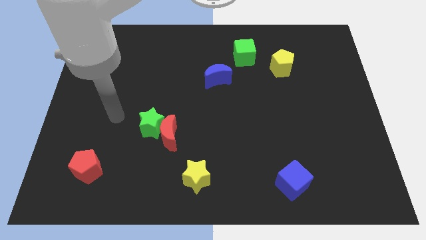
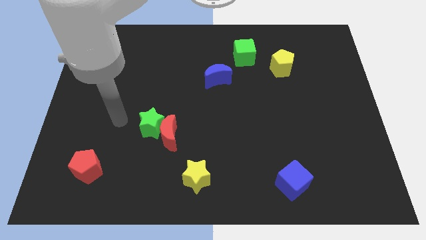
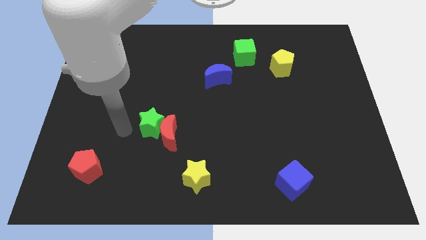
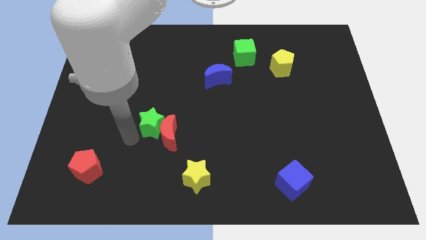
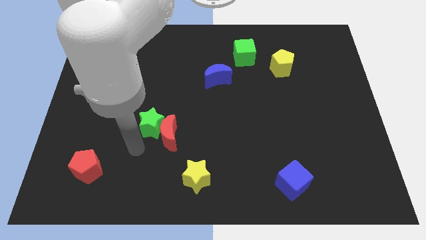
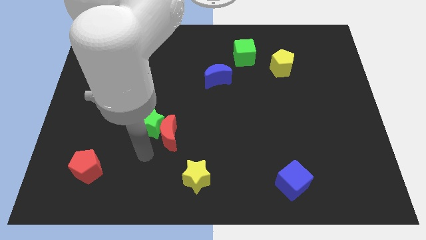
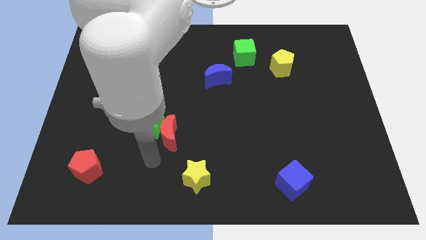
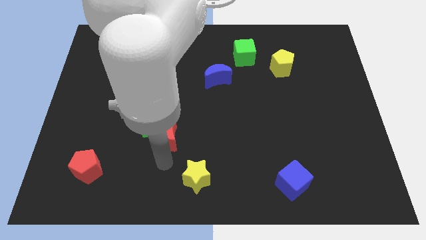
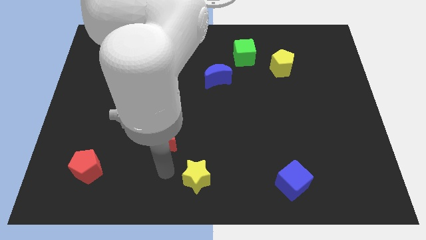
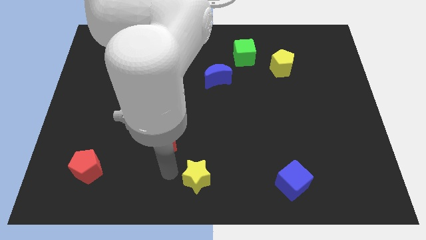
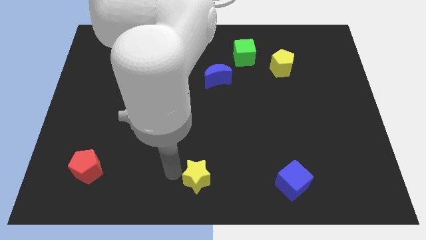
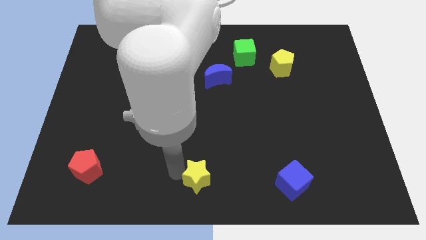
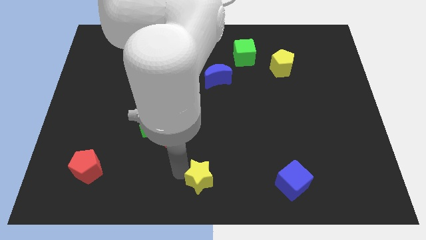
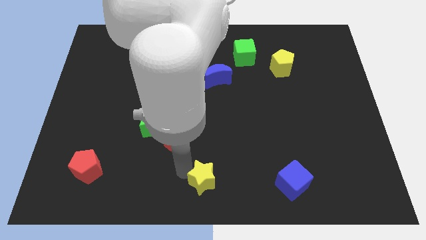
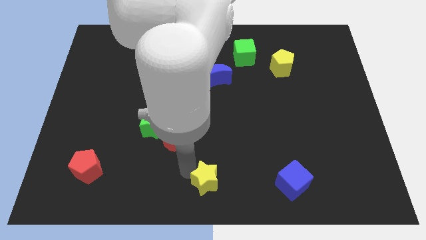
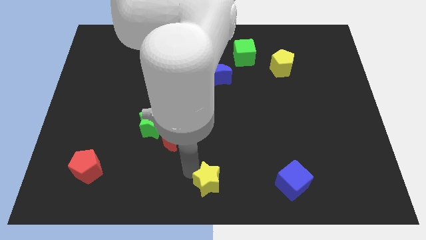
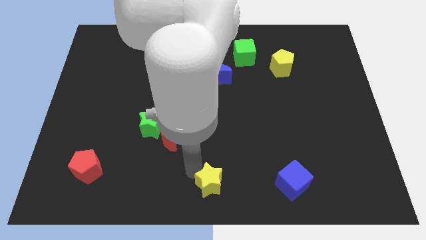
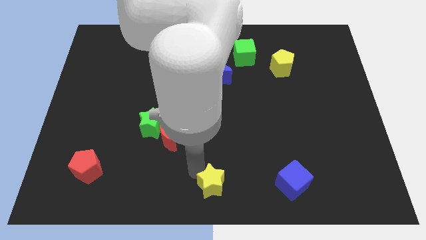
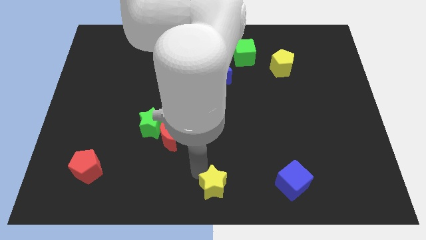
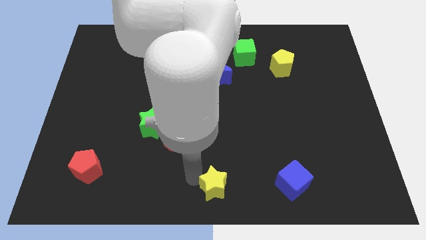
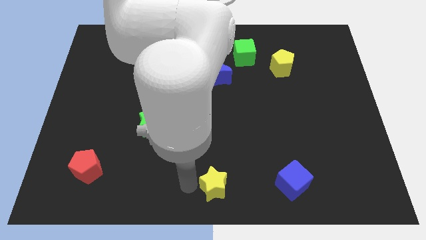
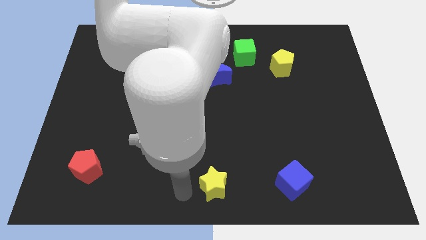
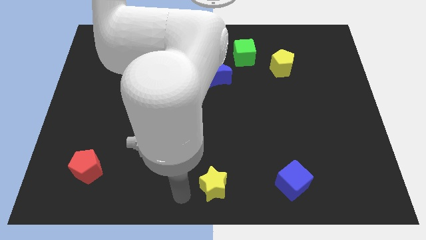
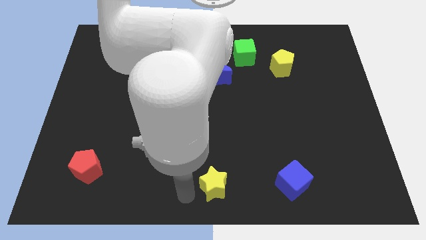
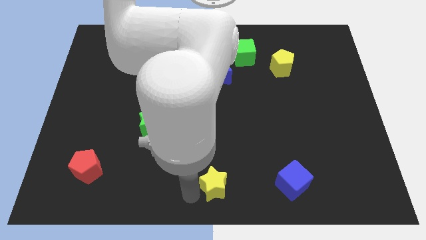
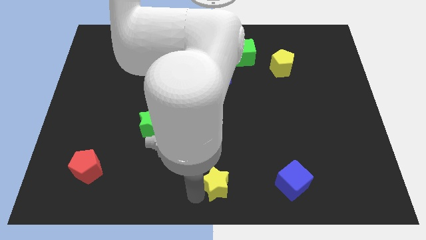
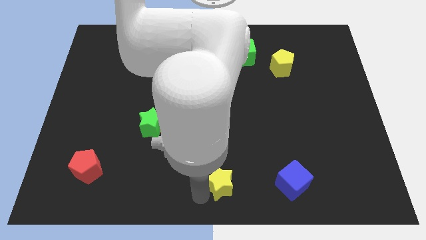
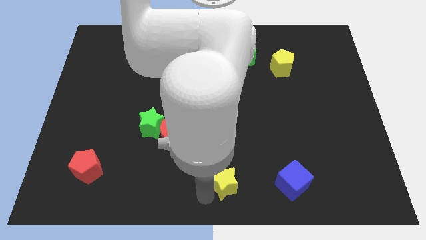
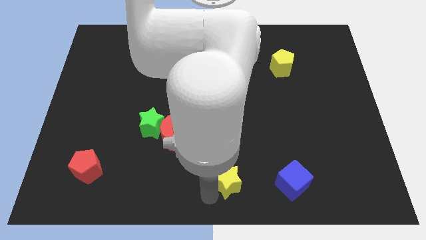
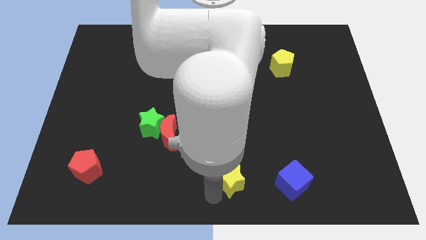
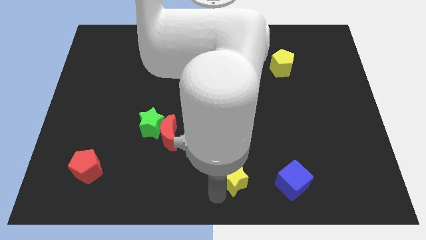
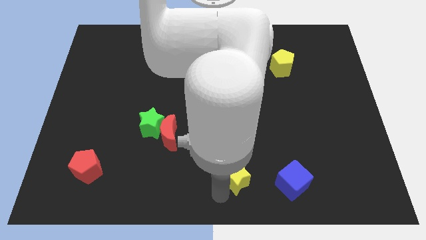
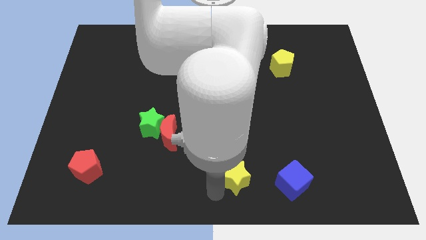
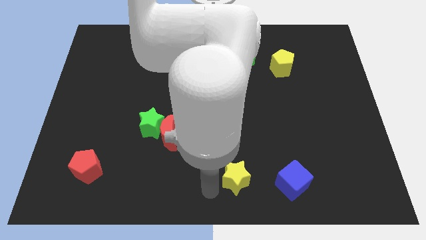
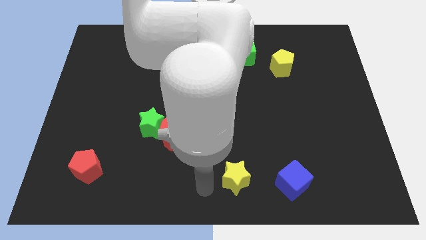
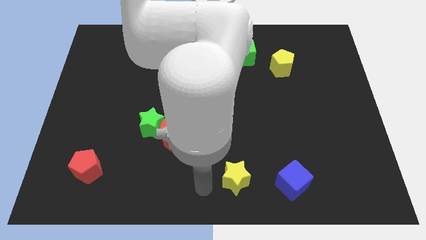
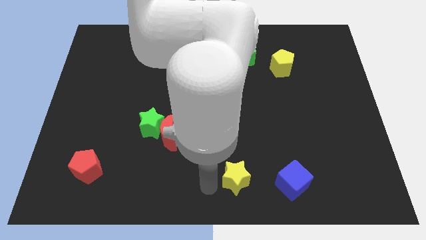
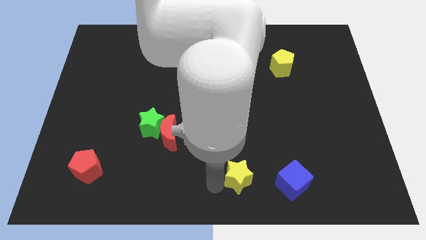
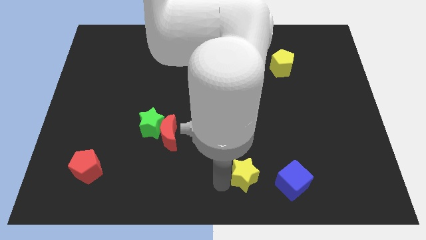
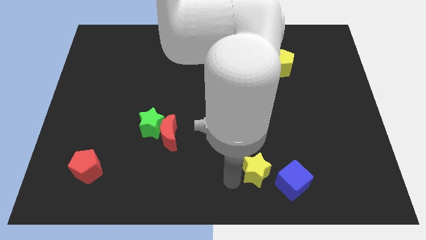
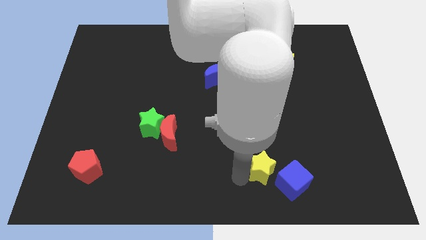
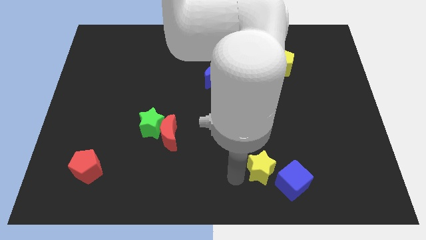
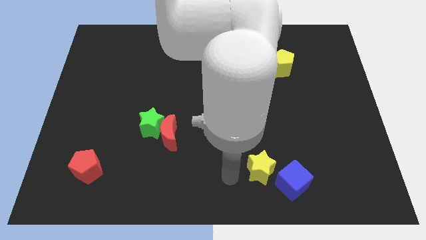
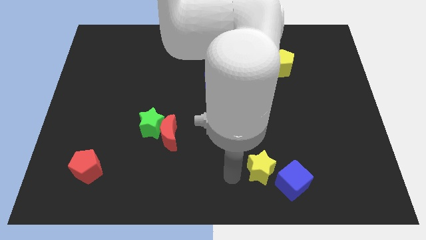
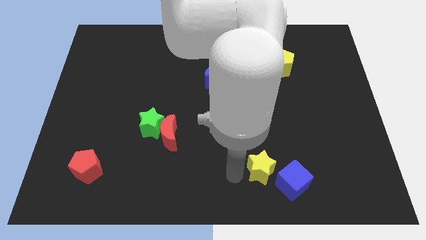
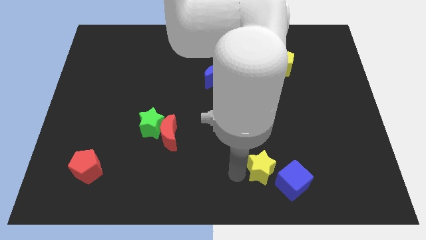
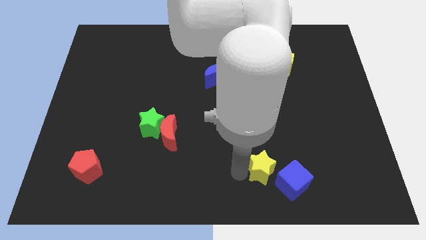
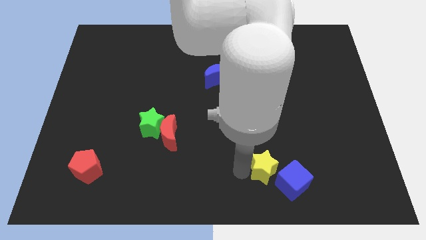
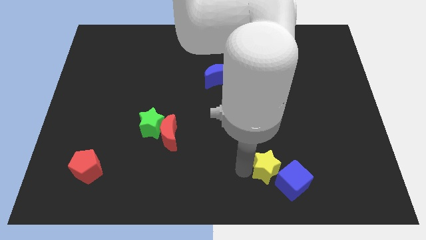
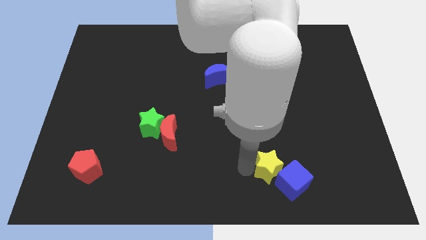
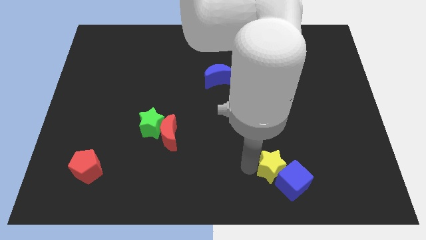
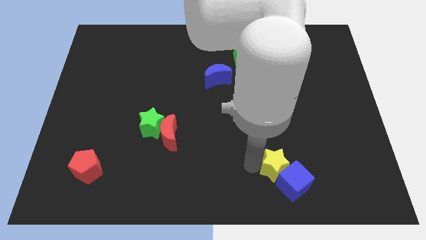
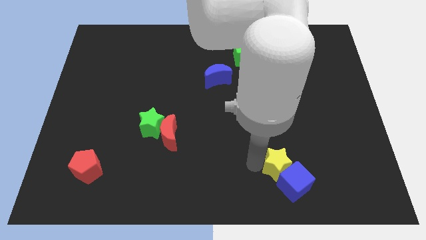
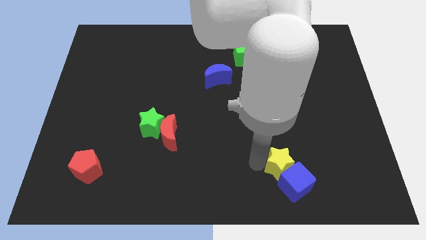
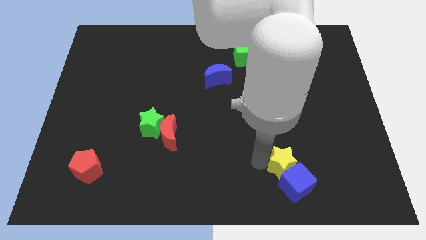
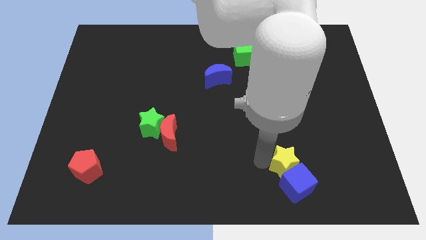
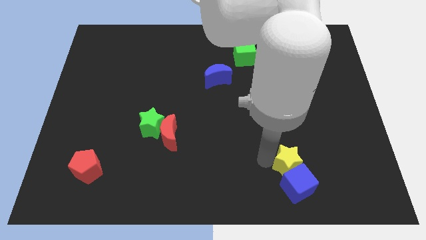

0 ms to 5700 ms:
put the yellow star to the top right of the blue cube

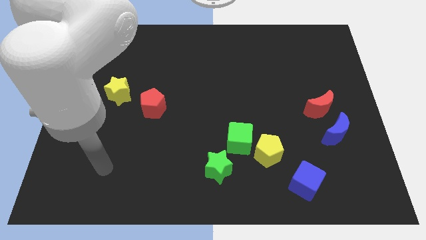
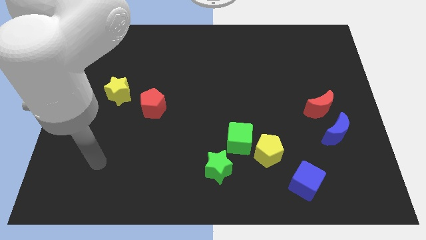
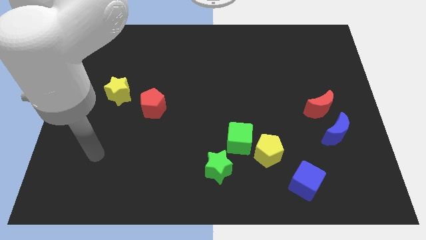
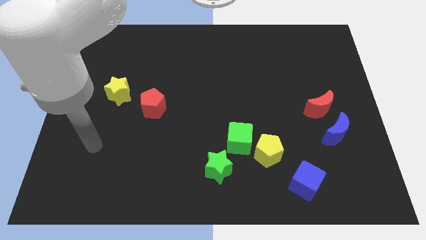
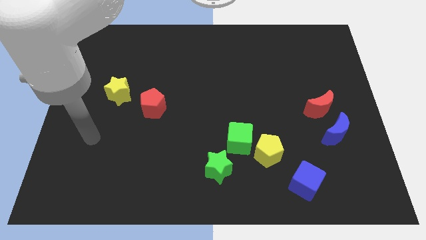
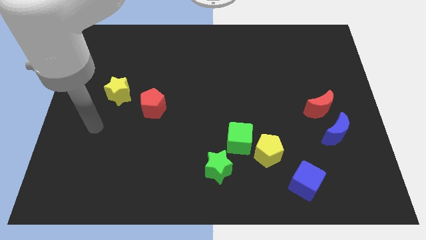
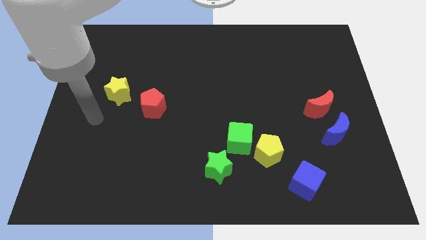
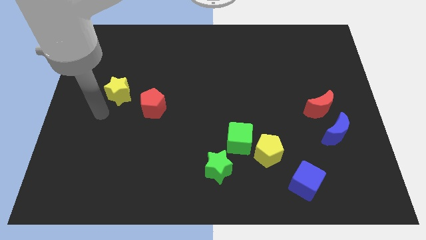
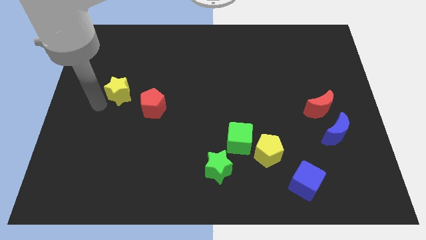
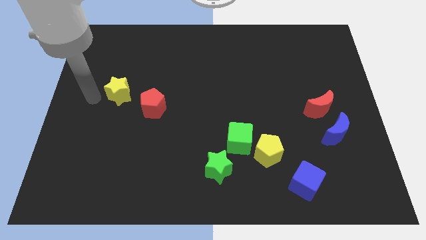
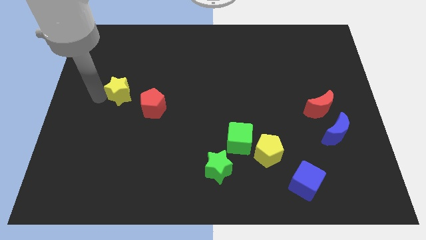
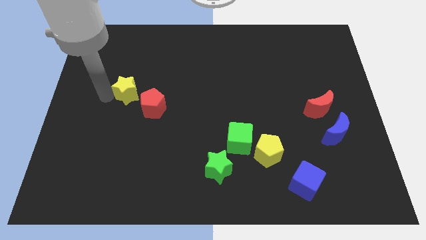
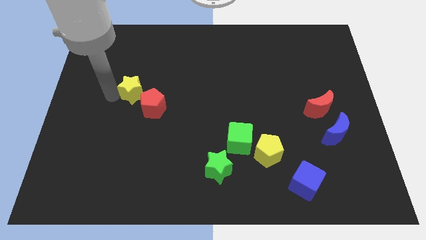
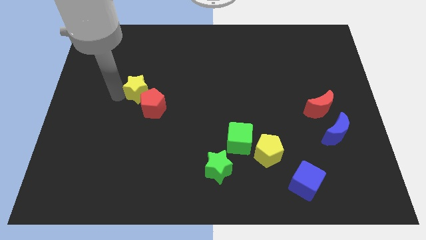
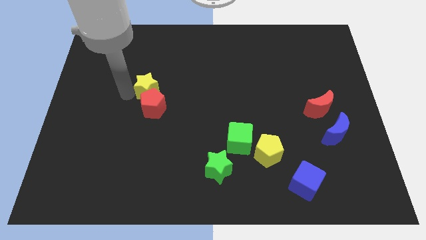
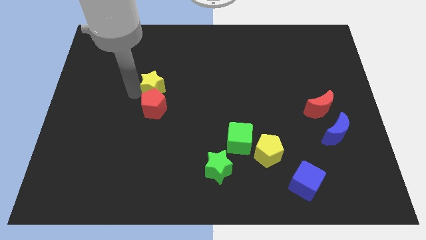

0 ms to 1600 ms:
move the yellow star to the top right of the red pentagon
